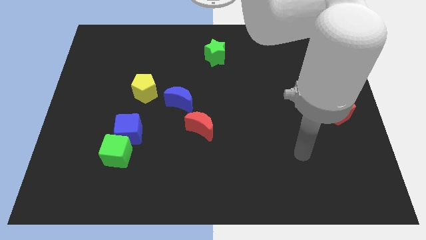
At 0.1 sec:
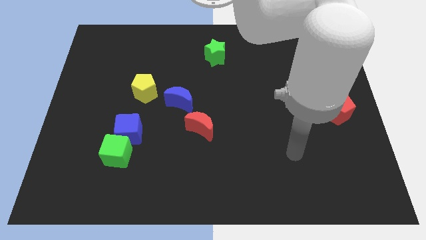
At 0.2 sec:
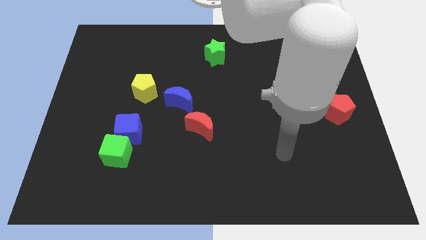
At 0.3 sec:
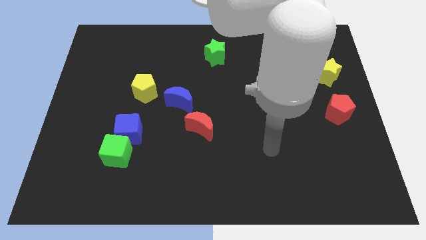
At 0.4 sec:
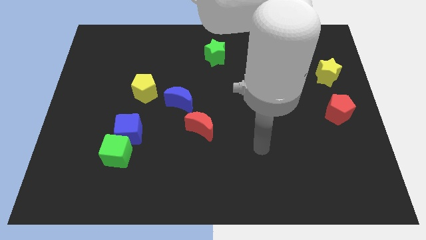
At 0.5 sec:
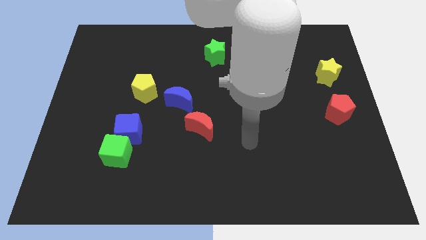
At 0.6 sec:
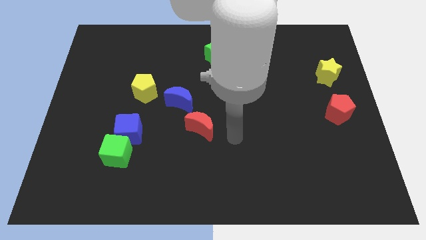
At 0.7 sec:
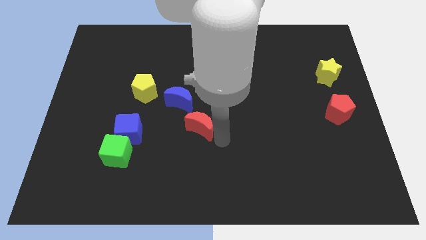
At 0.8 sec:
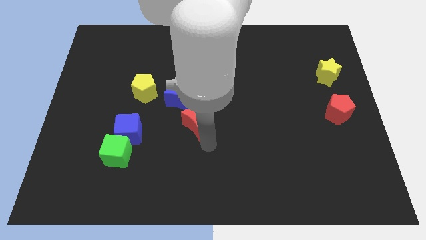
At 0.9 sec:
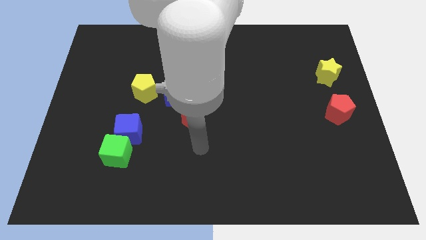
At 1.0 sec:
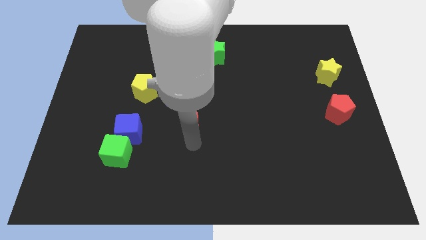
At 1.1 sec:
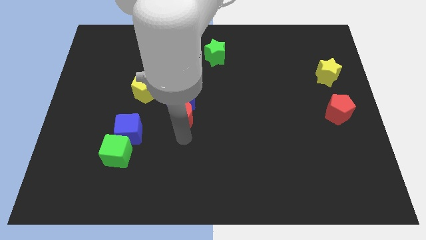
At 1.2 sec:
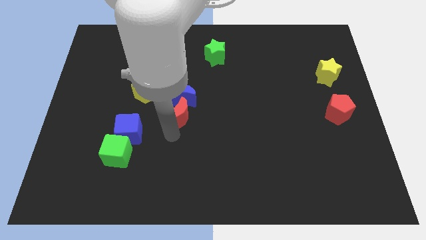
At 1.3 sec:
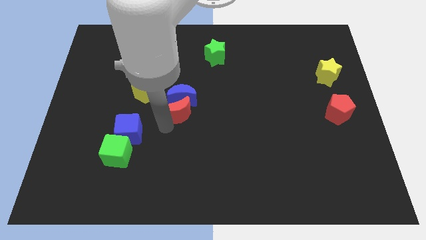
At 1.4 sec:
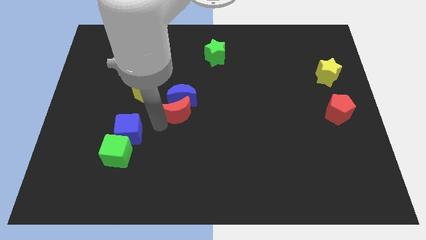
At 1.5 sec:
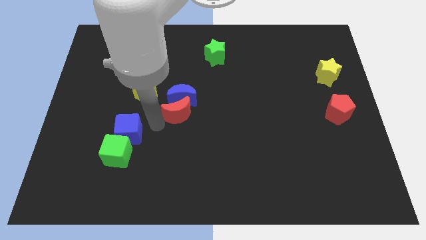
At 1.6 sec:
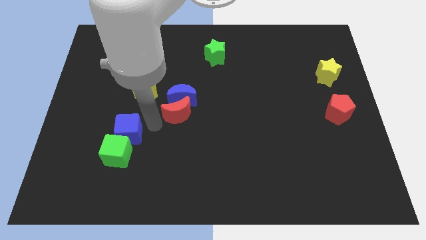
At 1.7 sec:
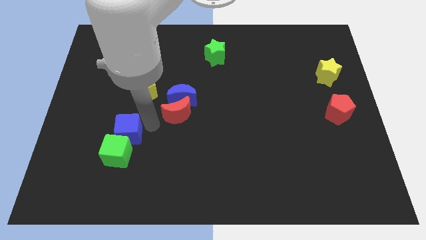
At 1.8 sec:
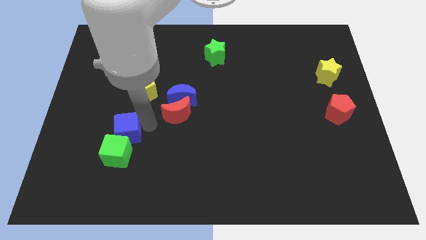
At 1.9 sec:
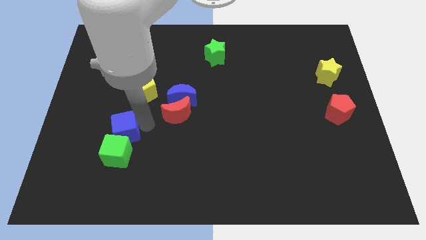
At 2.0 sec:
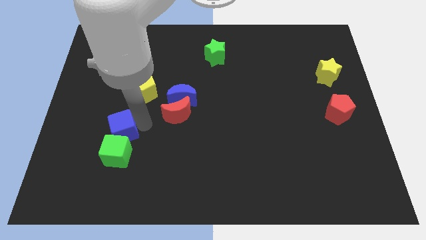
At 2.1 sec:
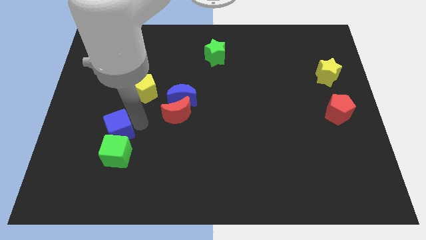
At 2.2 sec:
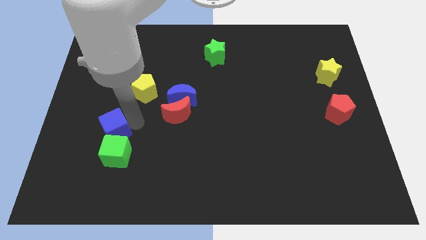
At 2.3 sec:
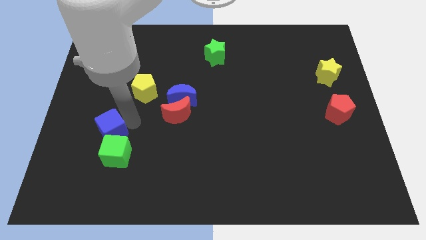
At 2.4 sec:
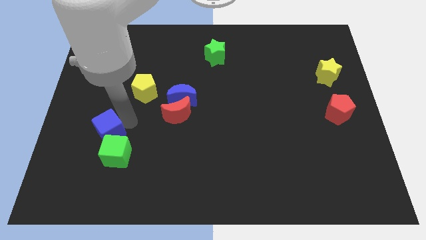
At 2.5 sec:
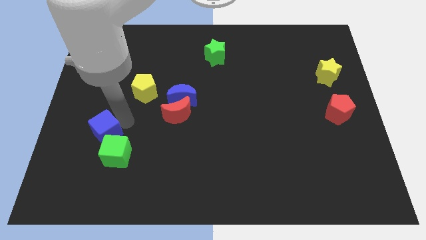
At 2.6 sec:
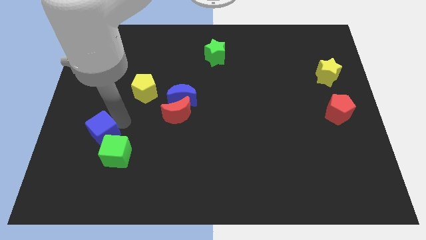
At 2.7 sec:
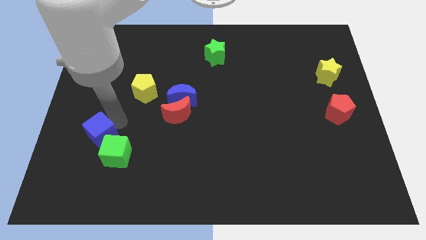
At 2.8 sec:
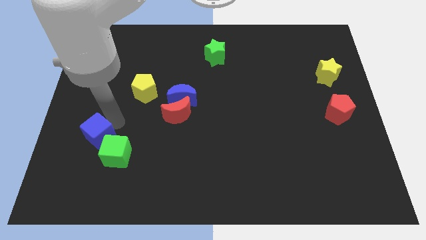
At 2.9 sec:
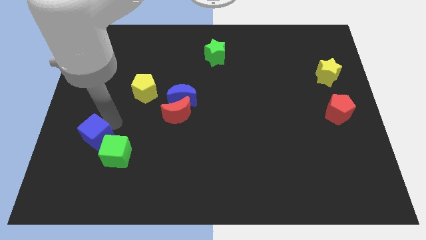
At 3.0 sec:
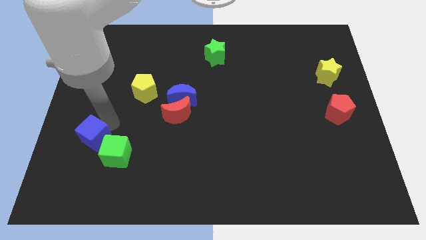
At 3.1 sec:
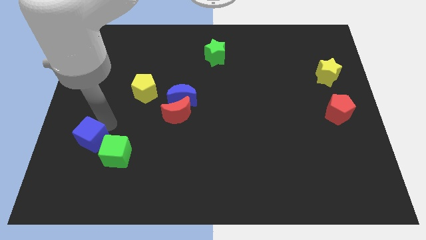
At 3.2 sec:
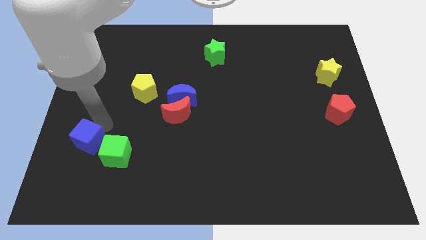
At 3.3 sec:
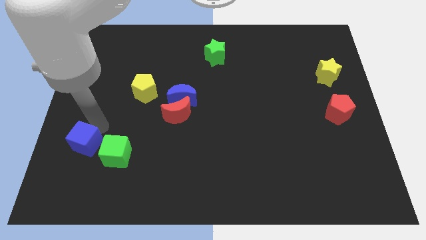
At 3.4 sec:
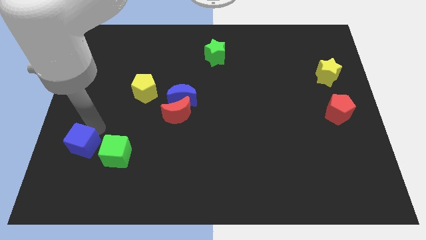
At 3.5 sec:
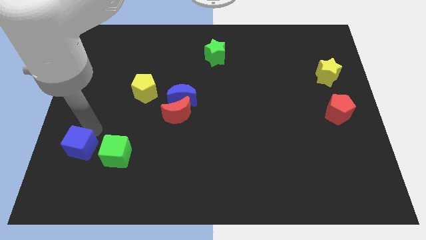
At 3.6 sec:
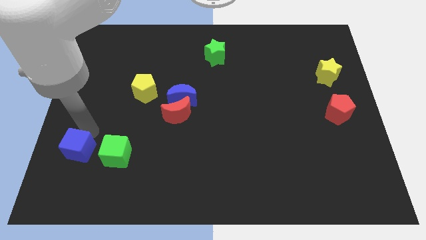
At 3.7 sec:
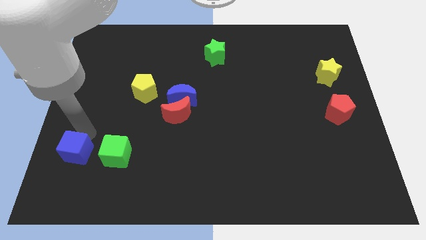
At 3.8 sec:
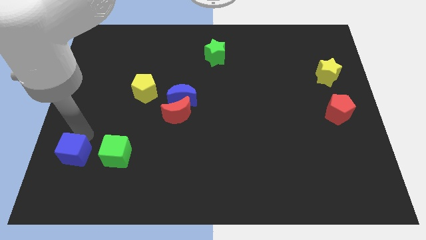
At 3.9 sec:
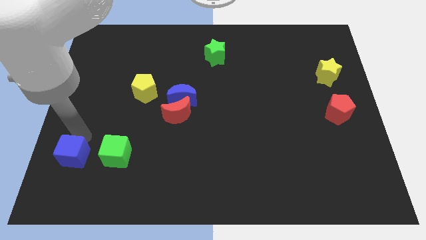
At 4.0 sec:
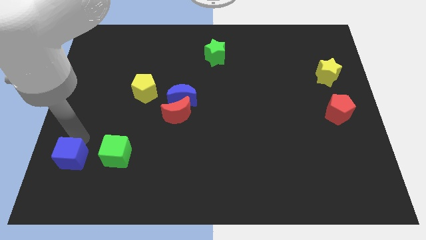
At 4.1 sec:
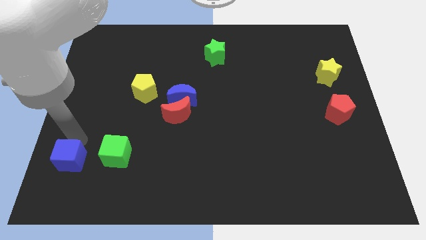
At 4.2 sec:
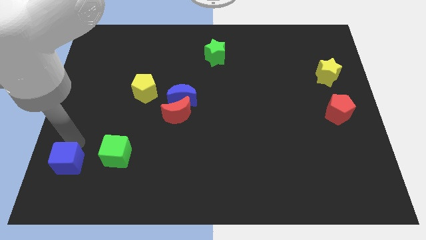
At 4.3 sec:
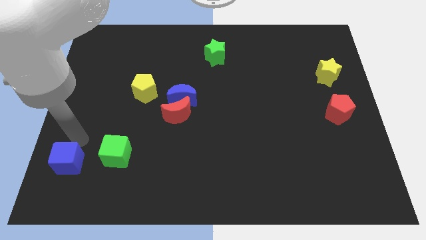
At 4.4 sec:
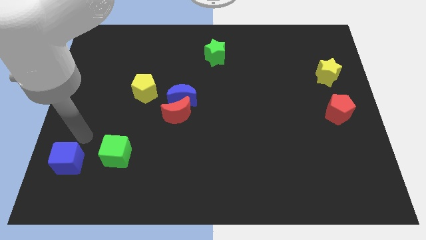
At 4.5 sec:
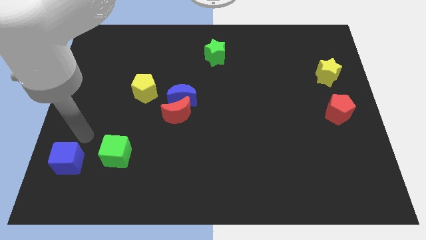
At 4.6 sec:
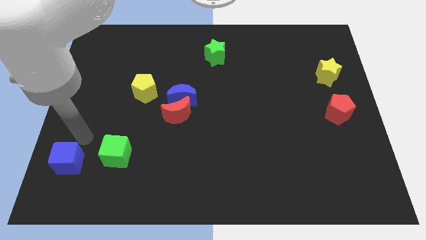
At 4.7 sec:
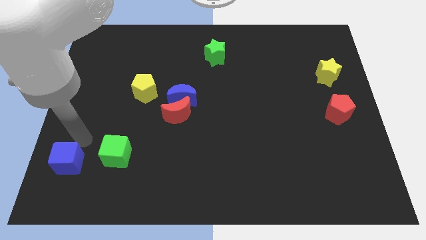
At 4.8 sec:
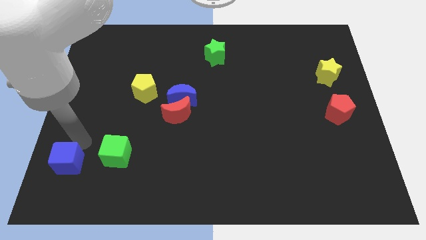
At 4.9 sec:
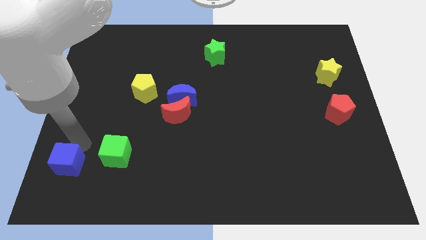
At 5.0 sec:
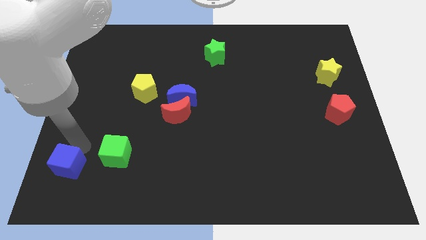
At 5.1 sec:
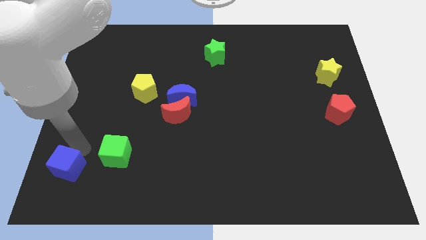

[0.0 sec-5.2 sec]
push the blue cube to the bottom left of the board
